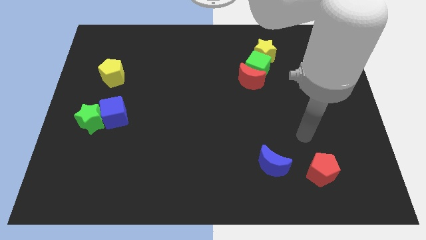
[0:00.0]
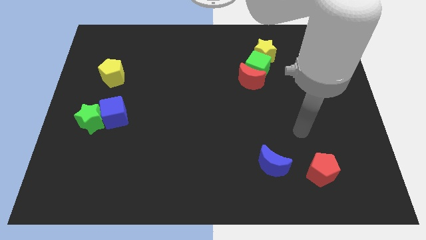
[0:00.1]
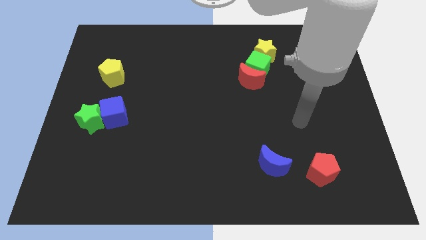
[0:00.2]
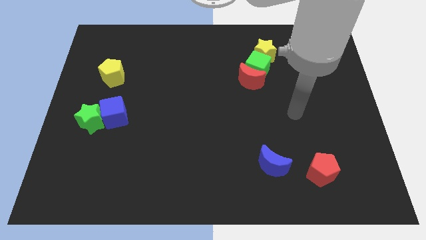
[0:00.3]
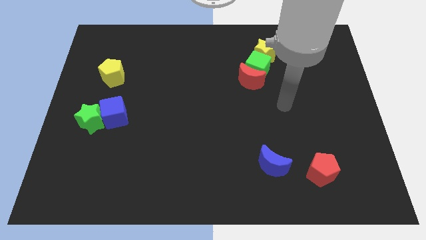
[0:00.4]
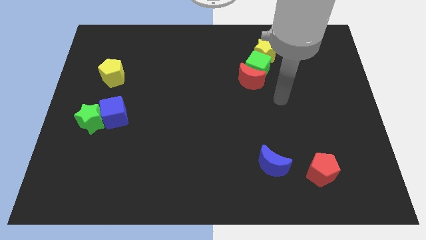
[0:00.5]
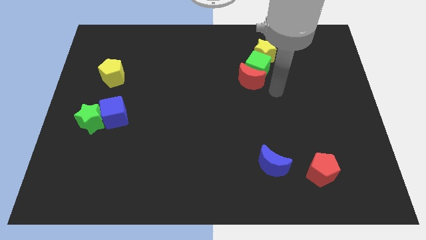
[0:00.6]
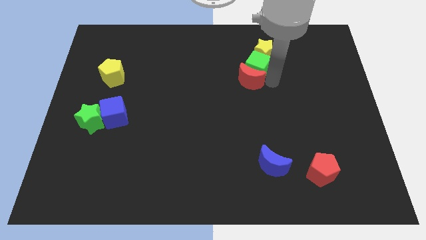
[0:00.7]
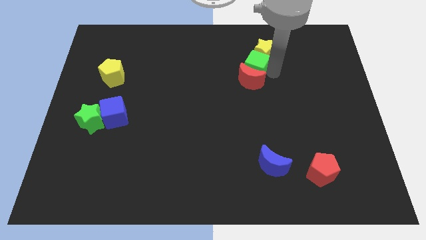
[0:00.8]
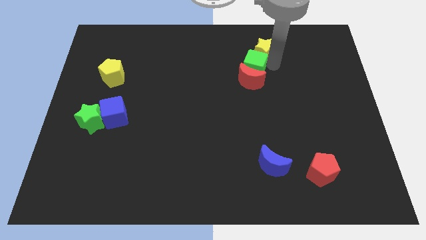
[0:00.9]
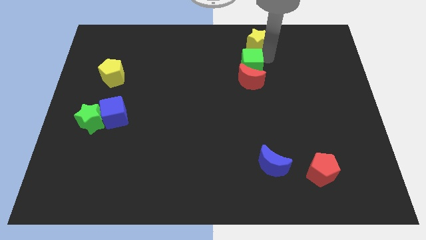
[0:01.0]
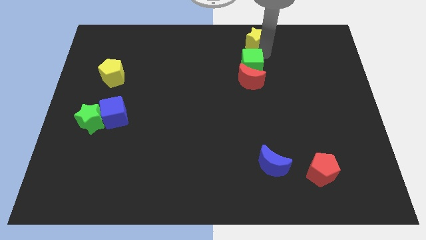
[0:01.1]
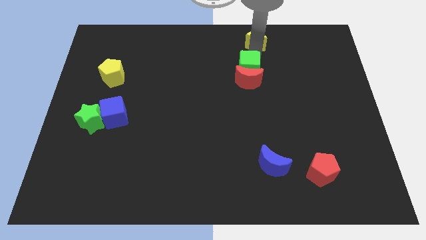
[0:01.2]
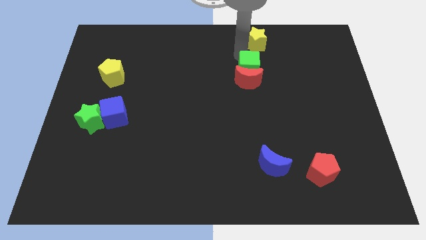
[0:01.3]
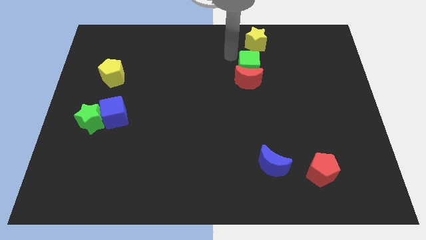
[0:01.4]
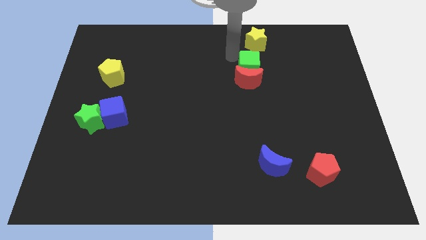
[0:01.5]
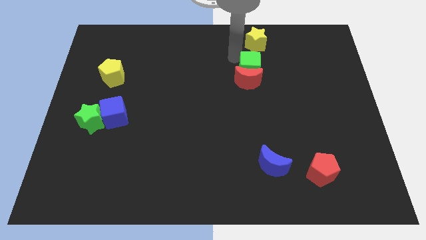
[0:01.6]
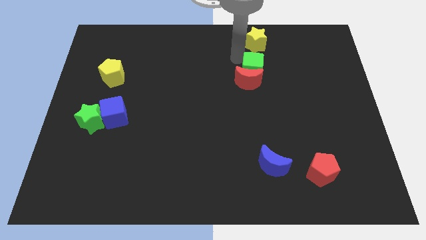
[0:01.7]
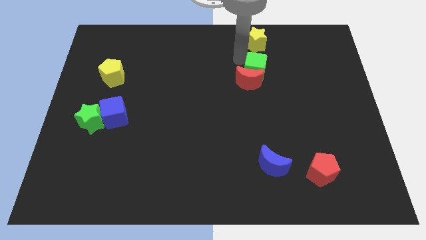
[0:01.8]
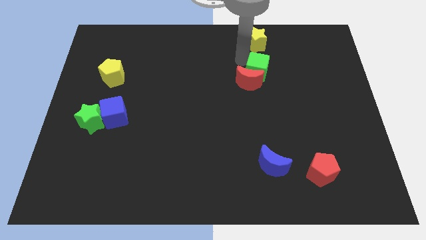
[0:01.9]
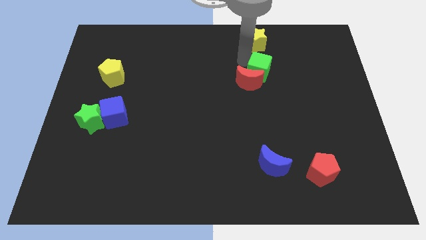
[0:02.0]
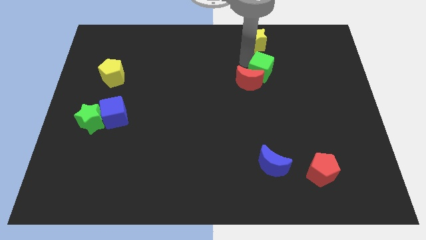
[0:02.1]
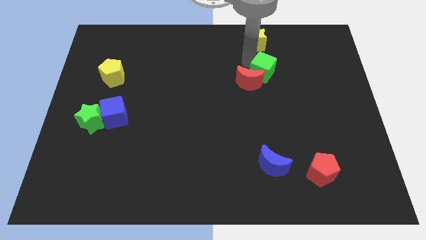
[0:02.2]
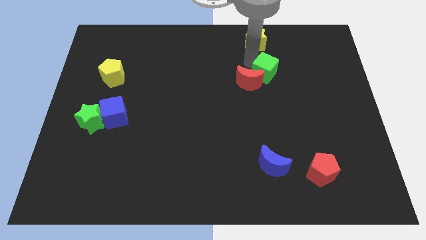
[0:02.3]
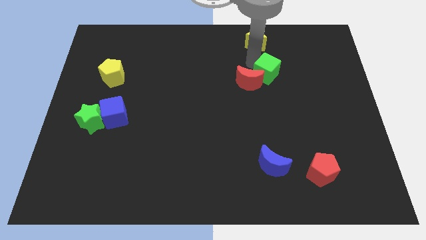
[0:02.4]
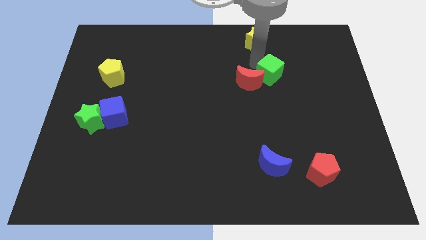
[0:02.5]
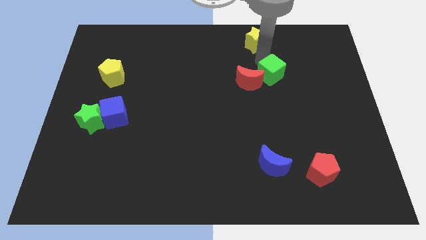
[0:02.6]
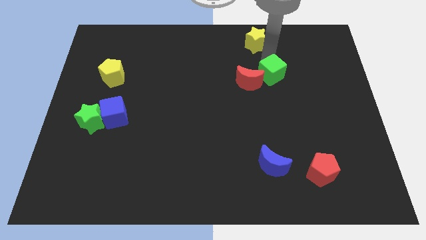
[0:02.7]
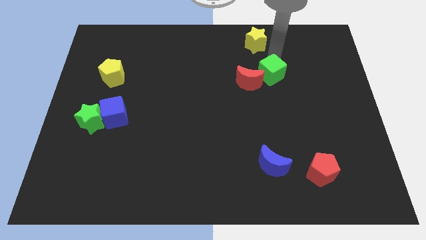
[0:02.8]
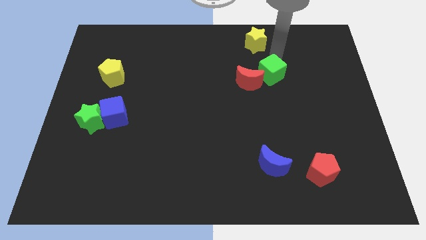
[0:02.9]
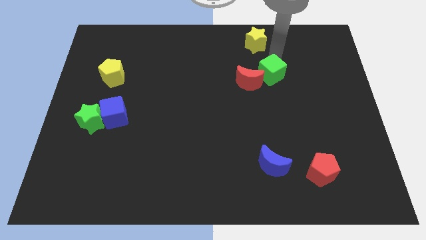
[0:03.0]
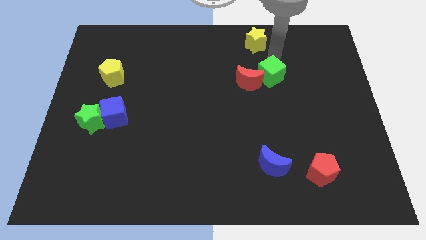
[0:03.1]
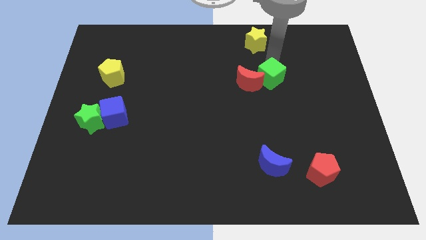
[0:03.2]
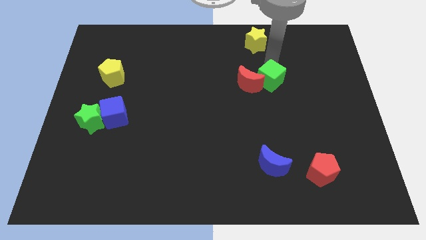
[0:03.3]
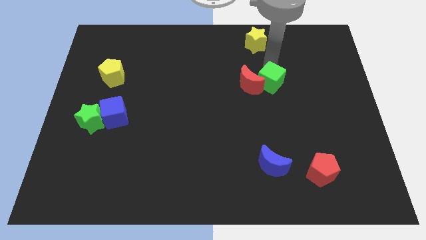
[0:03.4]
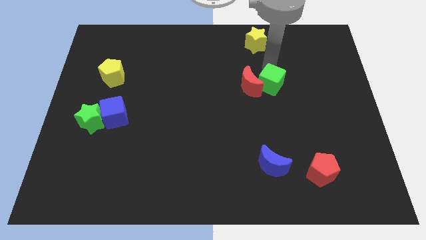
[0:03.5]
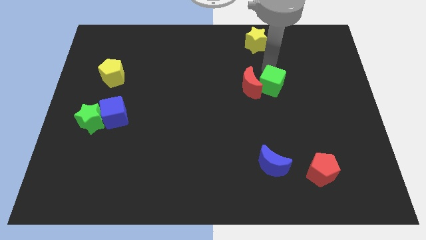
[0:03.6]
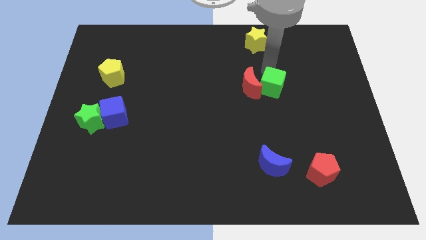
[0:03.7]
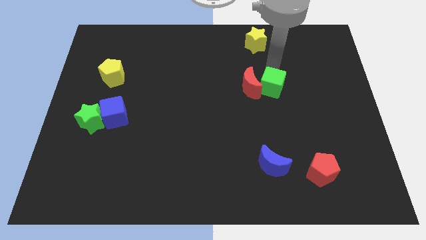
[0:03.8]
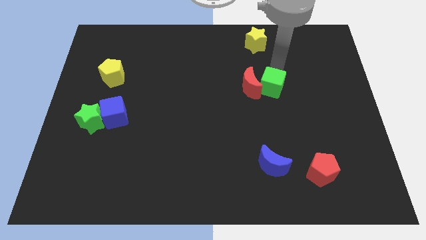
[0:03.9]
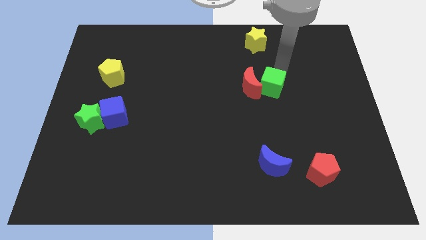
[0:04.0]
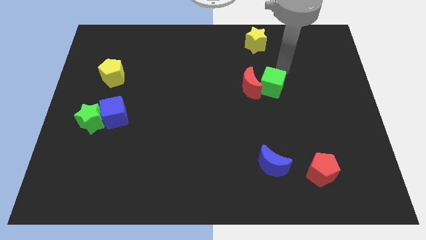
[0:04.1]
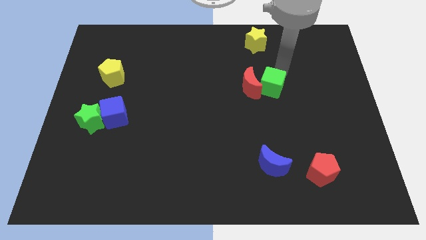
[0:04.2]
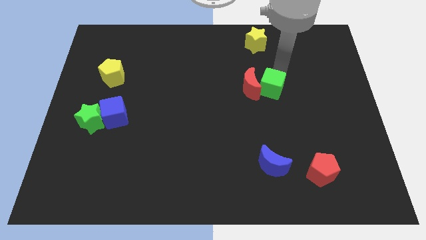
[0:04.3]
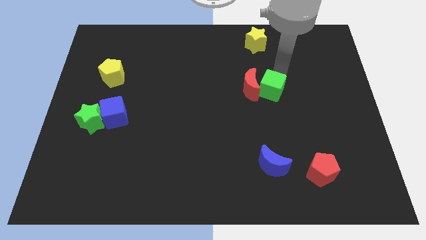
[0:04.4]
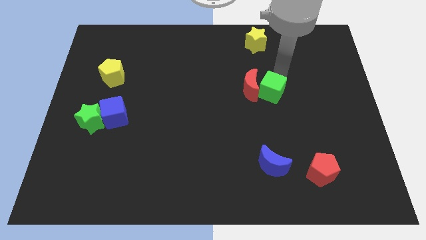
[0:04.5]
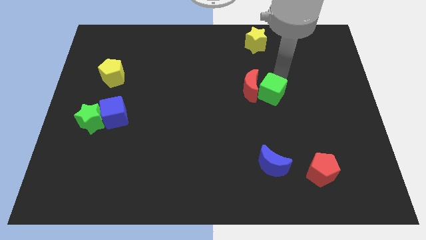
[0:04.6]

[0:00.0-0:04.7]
separate the green cube from the red moon and yellow star

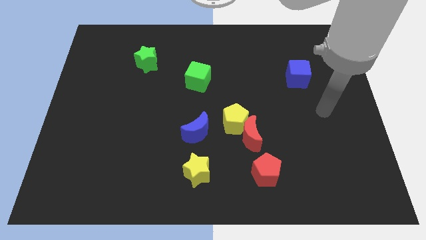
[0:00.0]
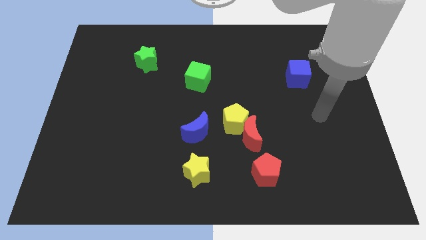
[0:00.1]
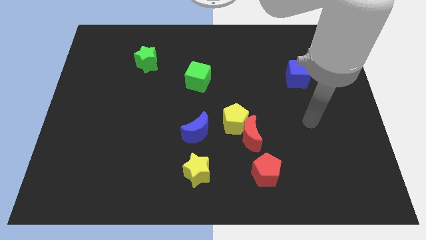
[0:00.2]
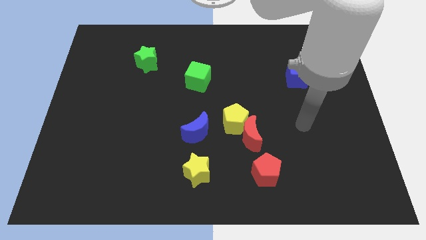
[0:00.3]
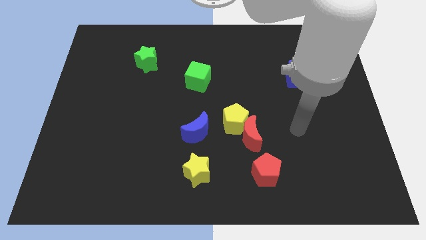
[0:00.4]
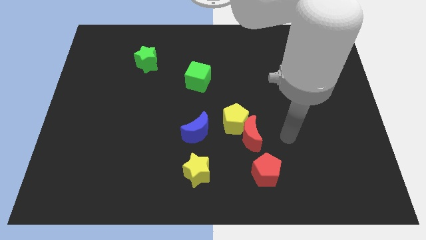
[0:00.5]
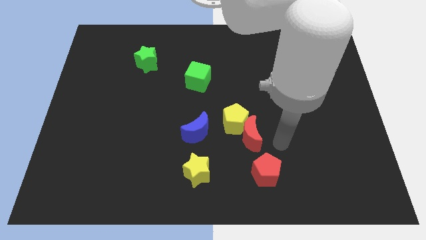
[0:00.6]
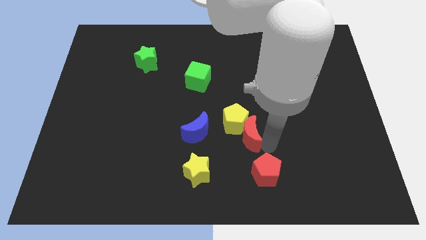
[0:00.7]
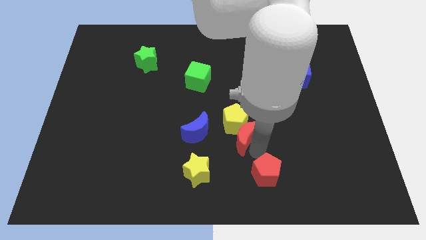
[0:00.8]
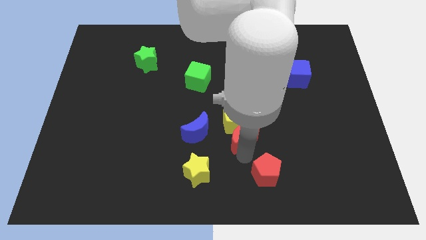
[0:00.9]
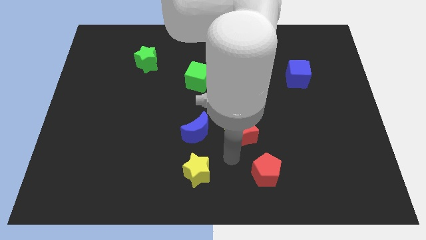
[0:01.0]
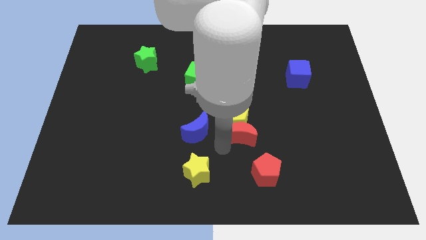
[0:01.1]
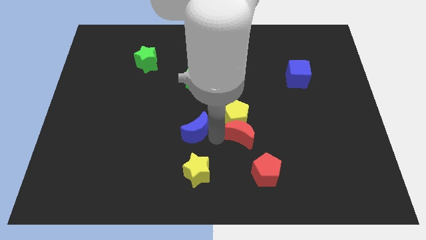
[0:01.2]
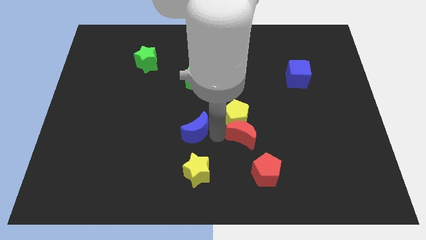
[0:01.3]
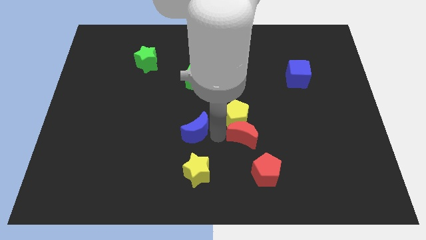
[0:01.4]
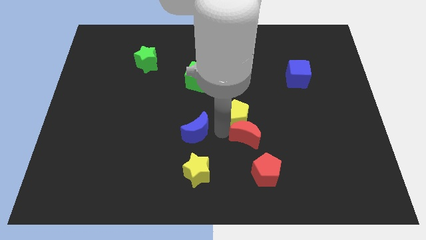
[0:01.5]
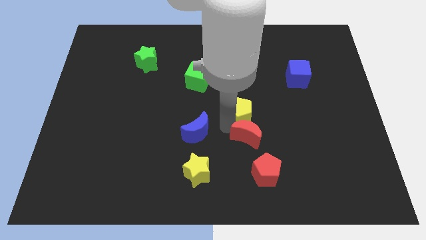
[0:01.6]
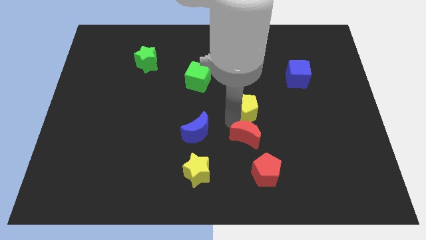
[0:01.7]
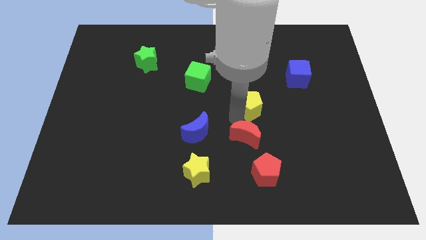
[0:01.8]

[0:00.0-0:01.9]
move the yellow pentagon away from the red moon and blue moon

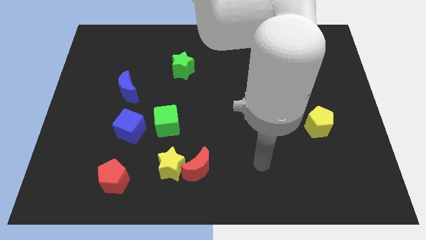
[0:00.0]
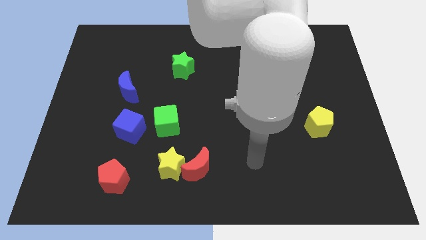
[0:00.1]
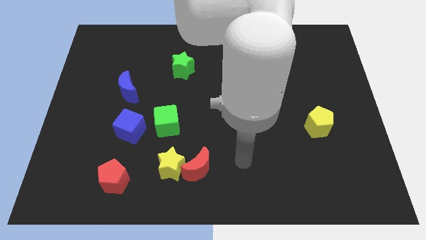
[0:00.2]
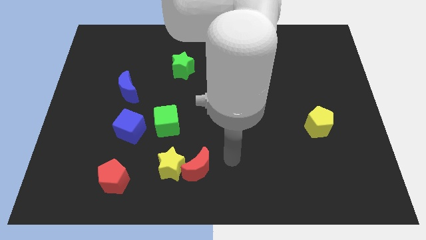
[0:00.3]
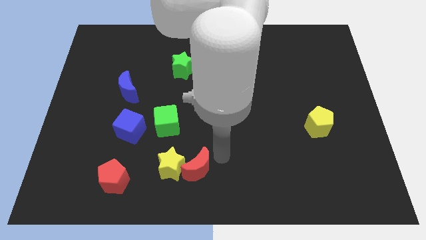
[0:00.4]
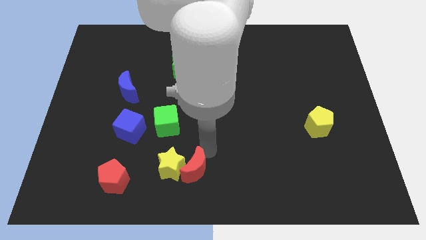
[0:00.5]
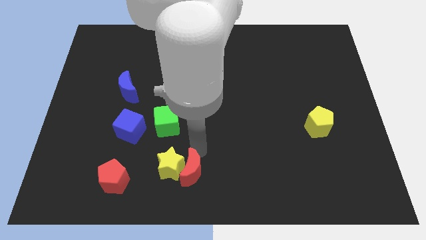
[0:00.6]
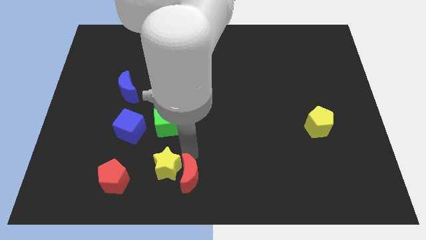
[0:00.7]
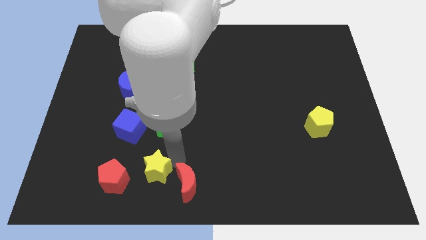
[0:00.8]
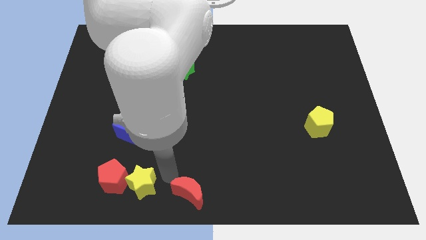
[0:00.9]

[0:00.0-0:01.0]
separate the red moon from the yellow star

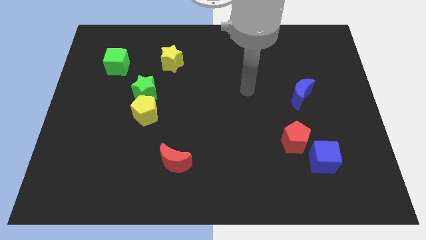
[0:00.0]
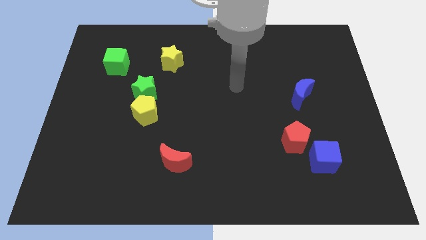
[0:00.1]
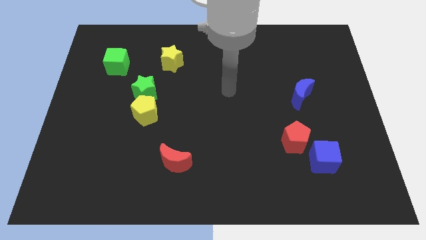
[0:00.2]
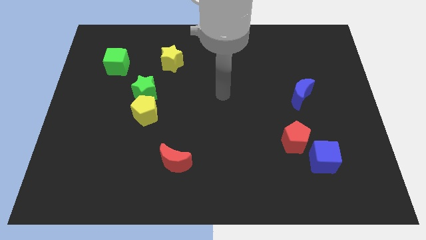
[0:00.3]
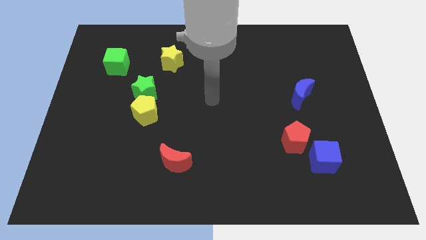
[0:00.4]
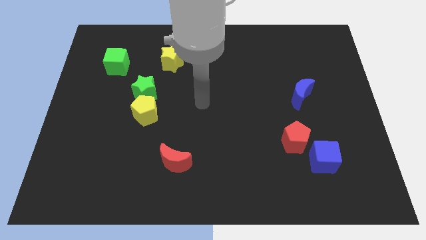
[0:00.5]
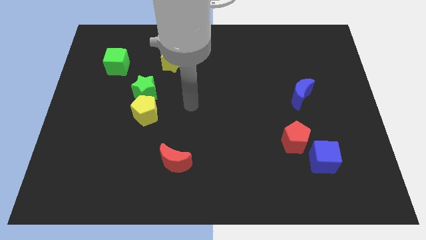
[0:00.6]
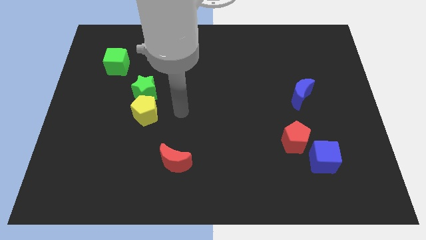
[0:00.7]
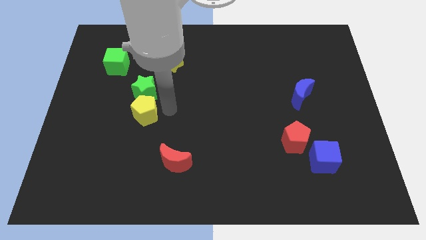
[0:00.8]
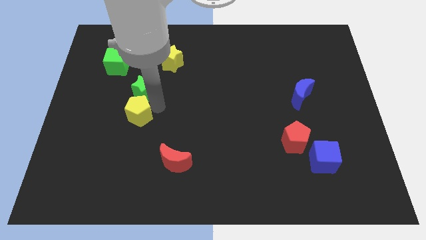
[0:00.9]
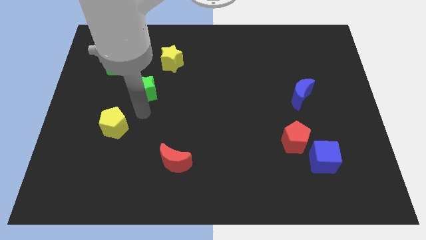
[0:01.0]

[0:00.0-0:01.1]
separate the green star from the yellow pentagon

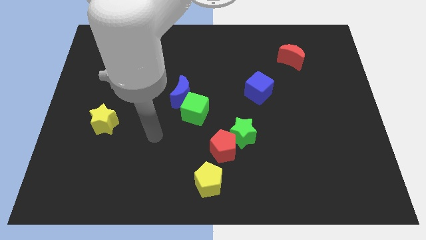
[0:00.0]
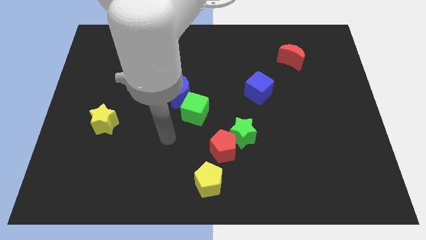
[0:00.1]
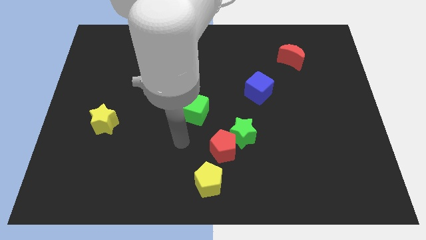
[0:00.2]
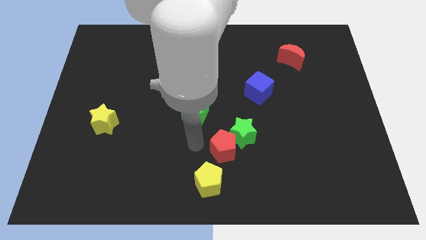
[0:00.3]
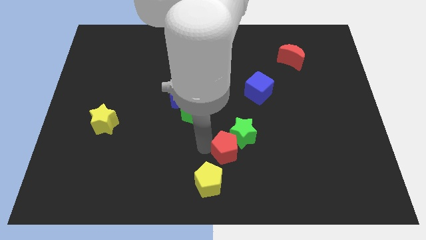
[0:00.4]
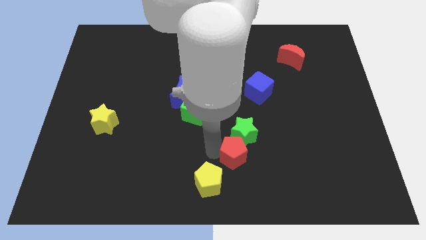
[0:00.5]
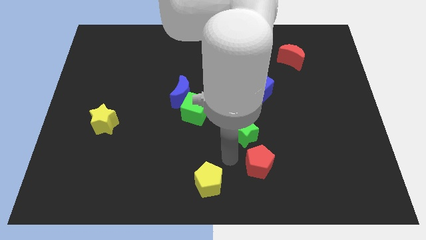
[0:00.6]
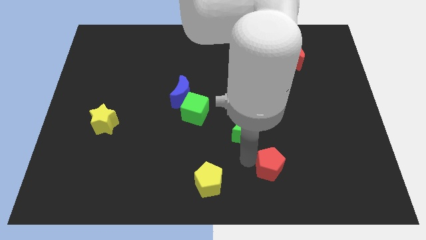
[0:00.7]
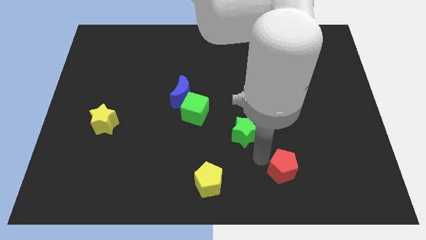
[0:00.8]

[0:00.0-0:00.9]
separate the green star from the red pentagon
